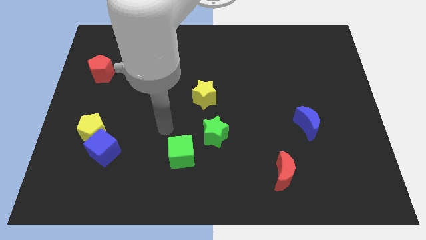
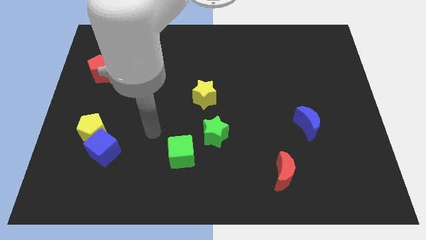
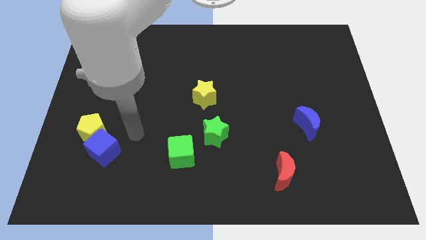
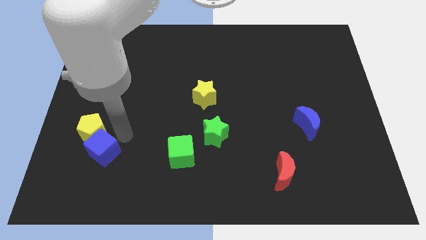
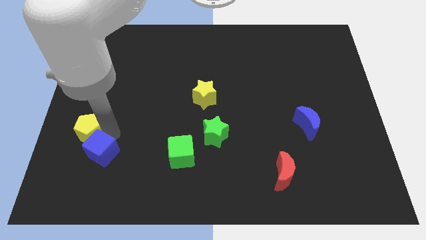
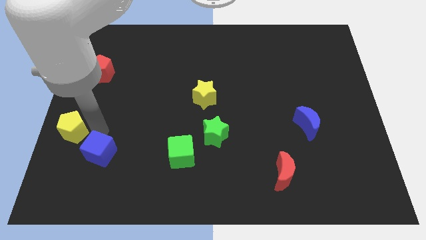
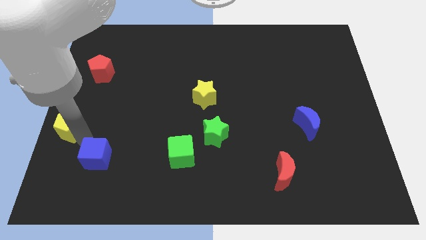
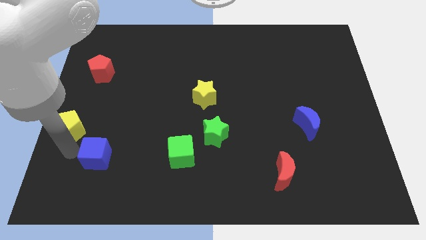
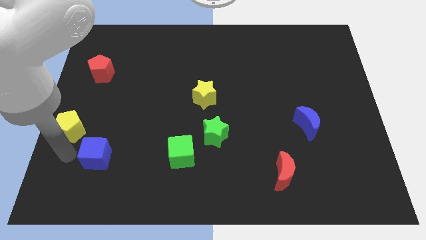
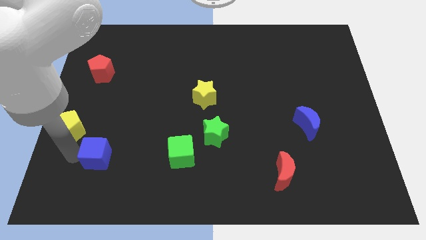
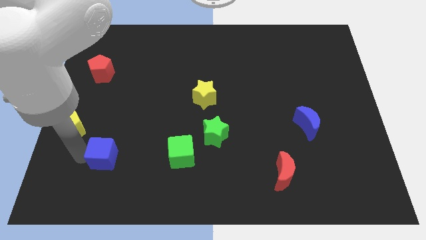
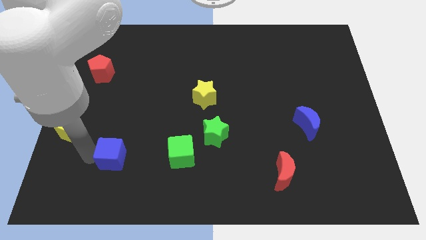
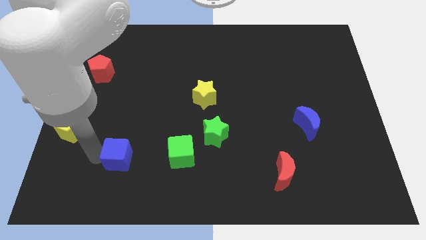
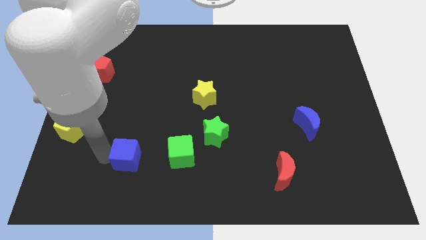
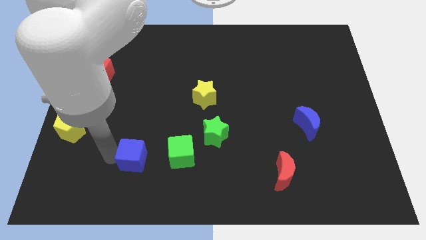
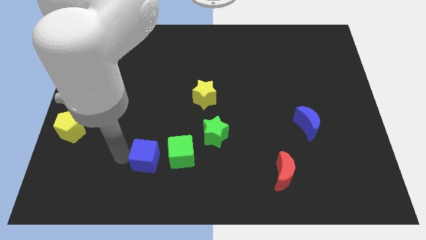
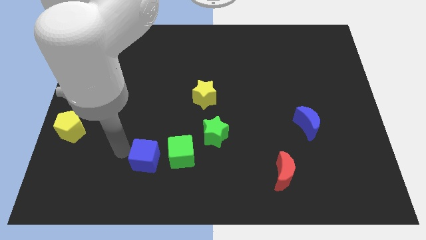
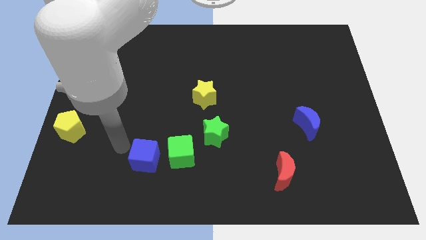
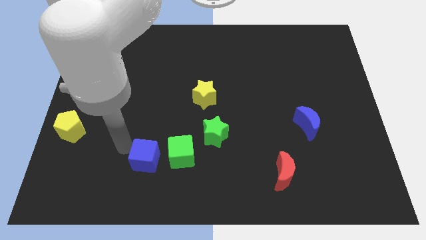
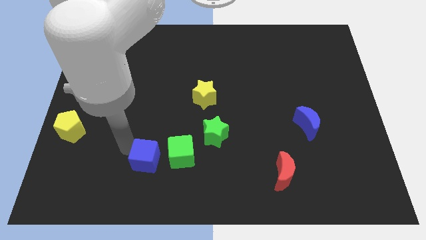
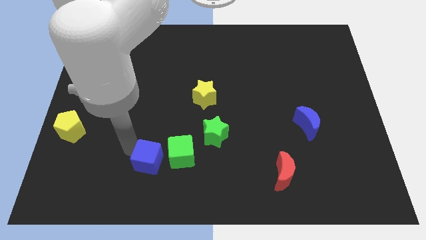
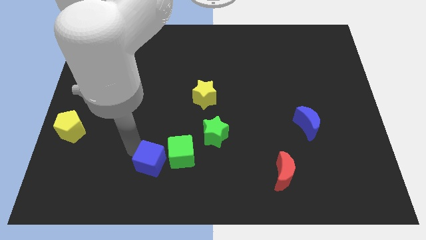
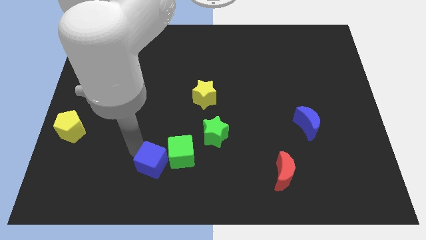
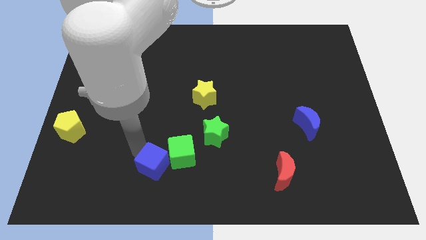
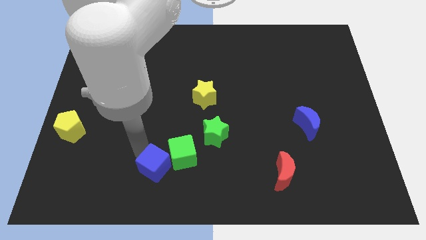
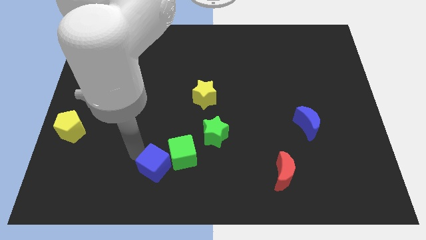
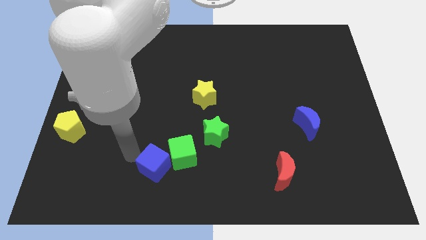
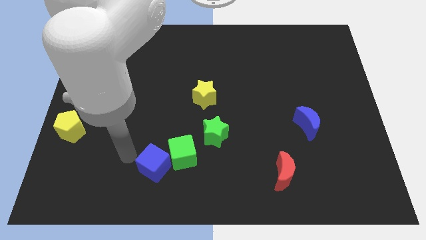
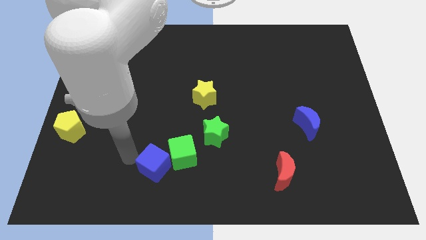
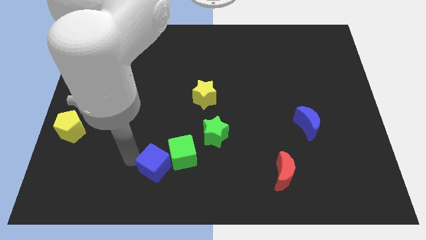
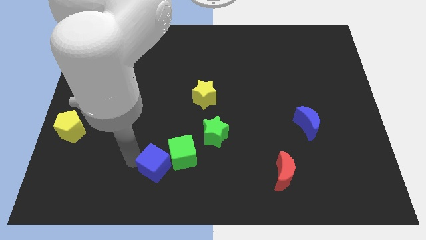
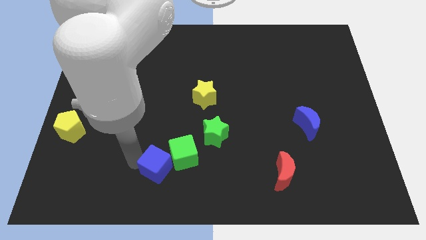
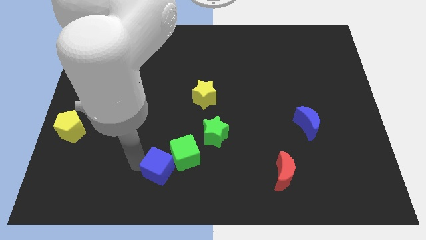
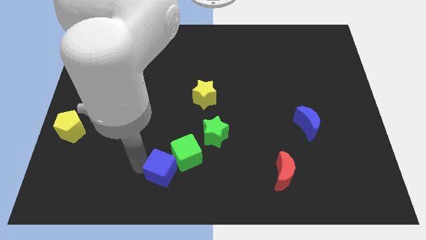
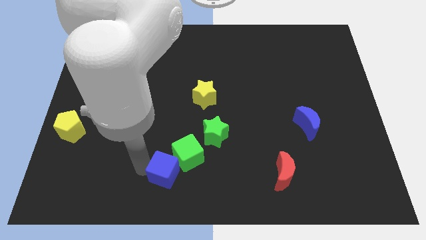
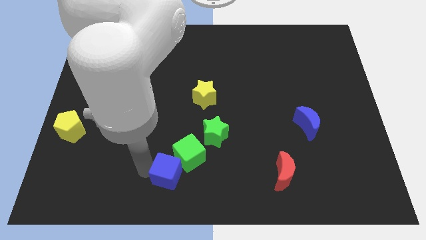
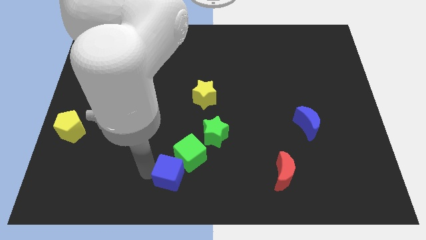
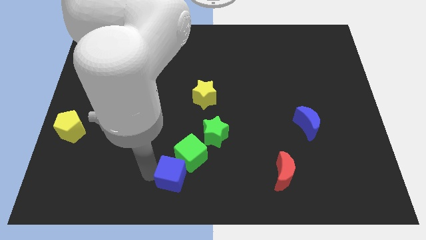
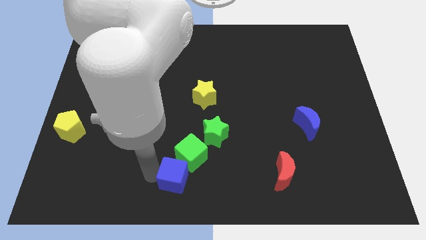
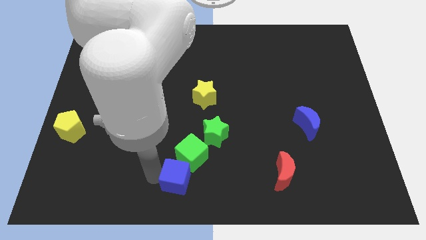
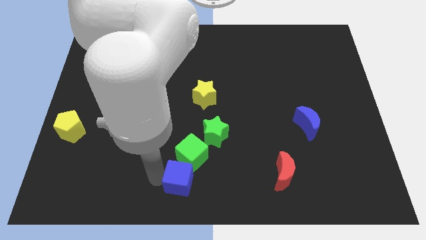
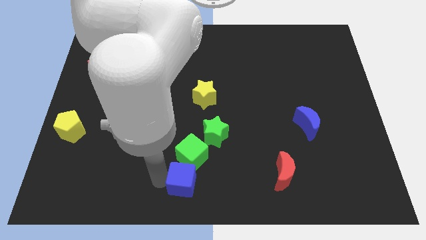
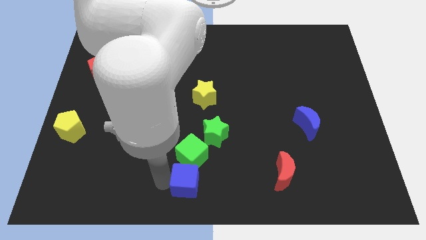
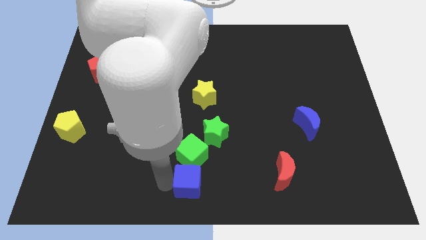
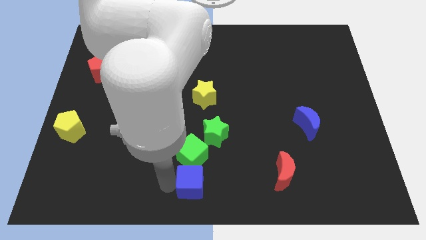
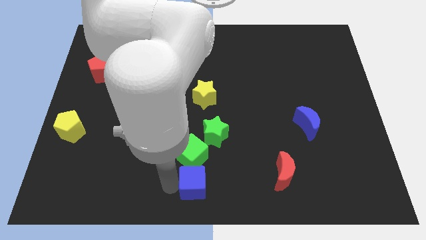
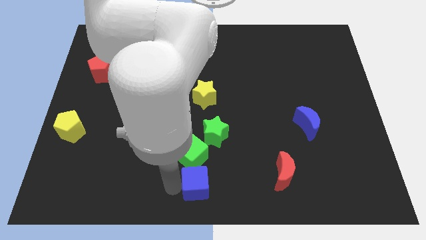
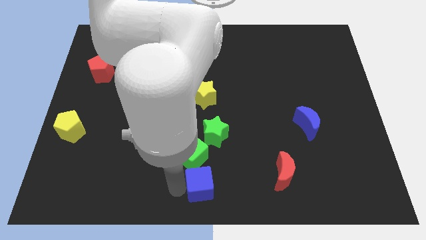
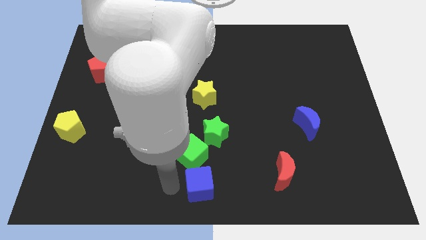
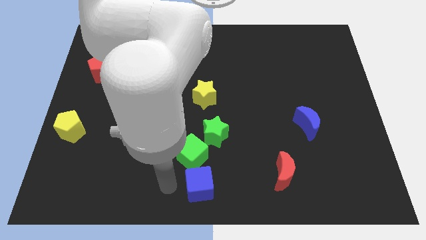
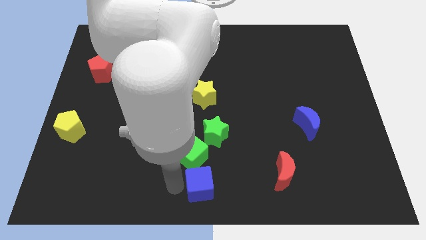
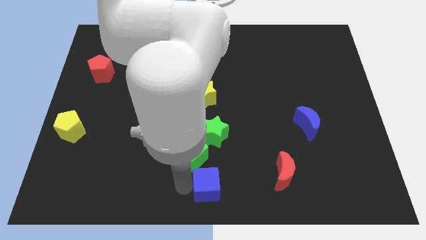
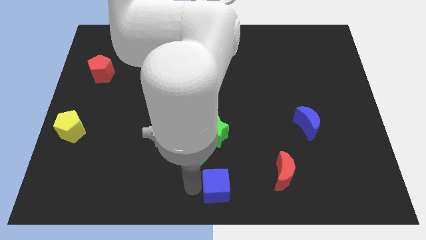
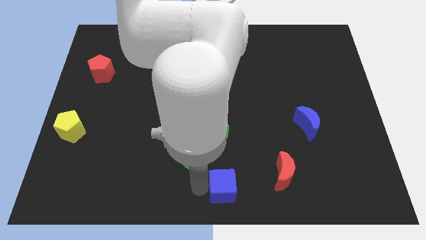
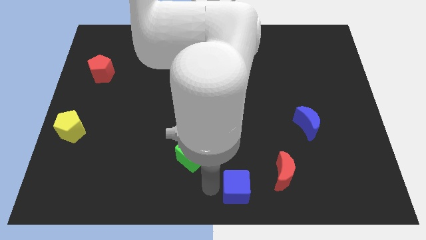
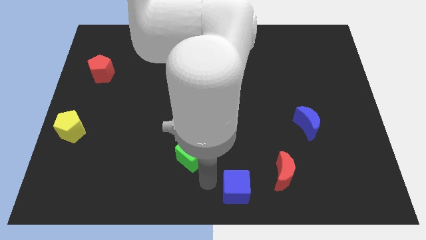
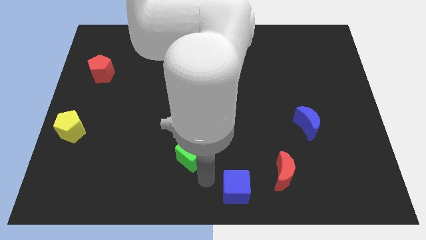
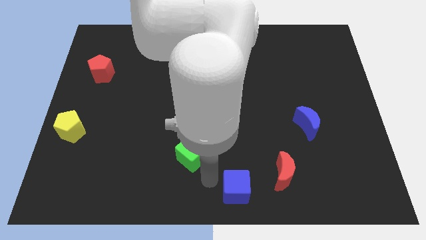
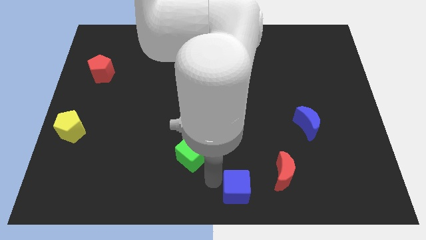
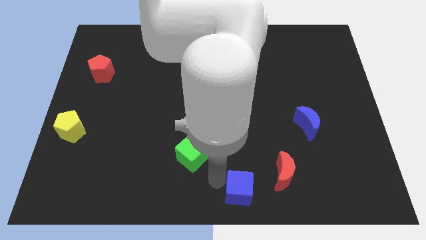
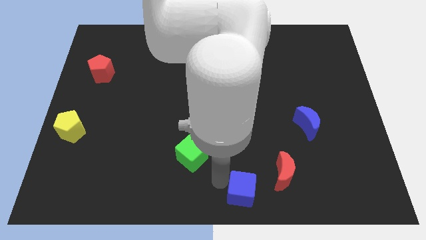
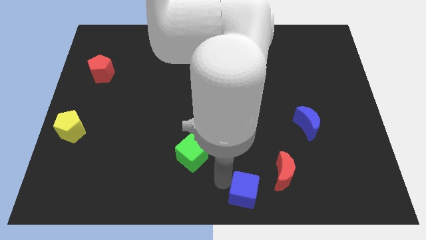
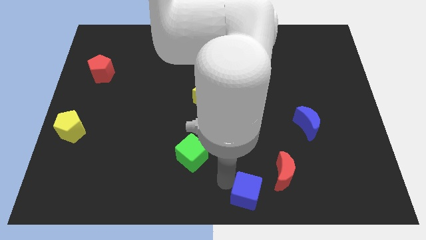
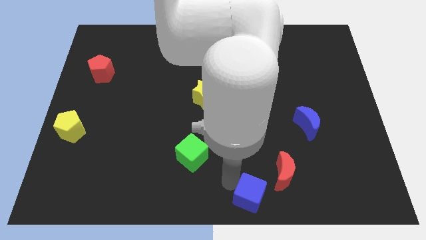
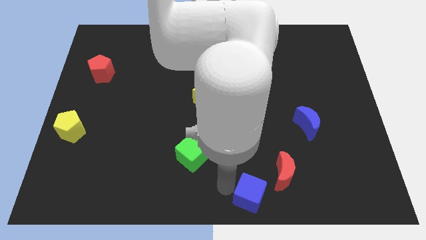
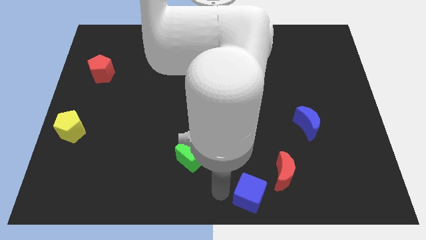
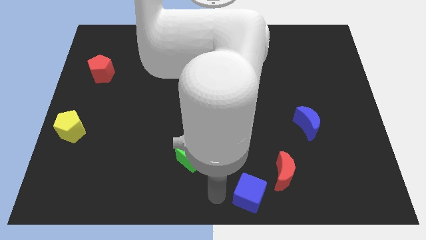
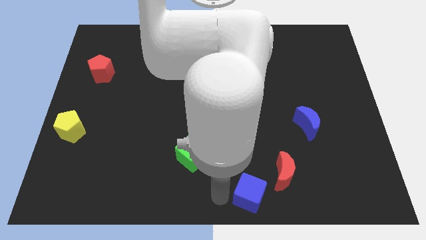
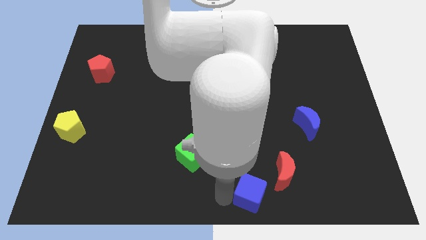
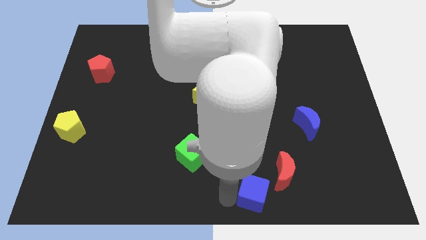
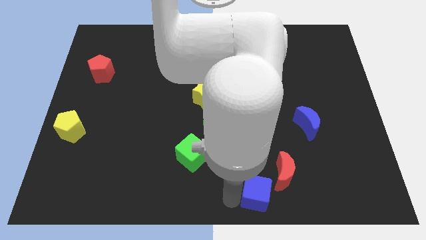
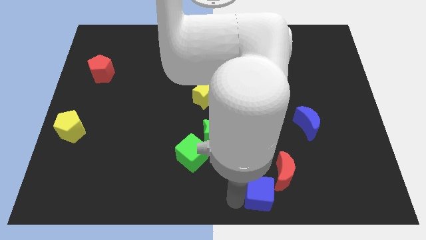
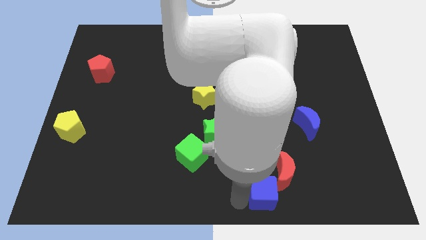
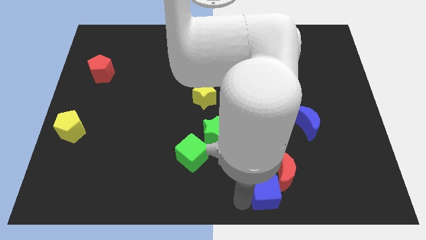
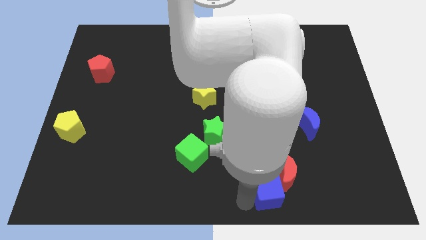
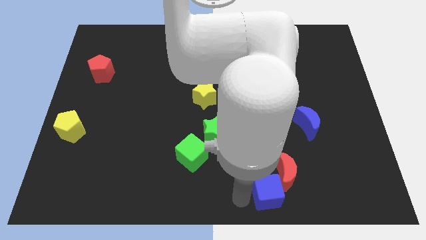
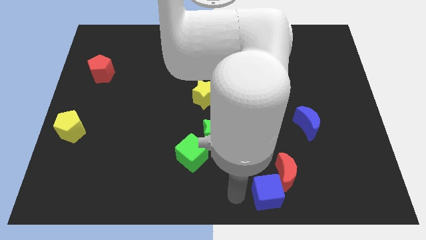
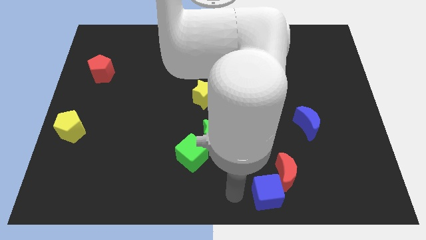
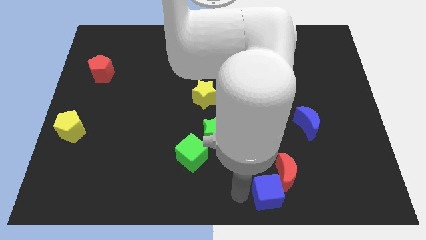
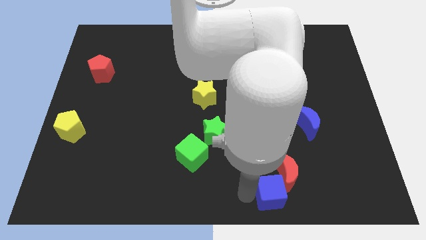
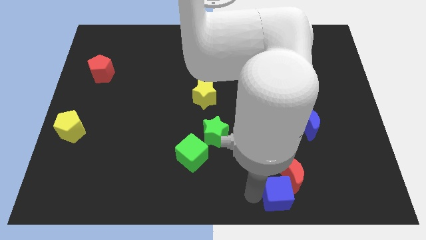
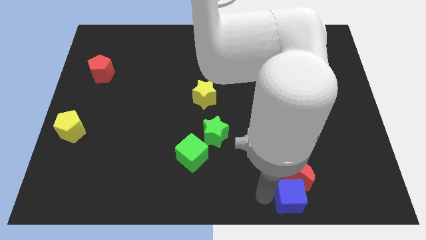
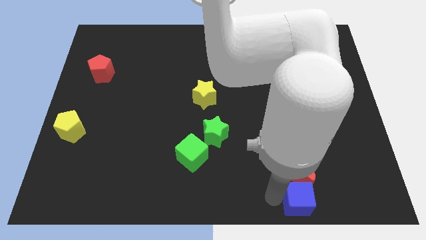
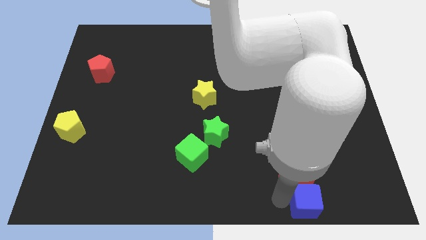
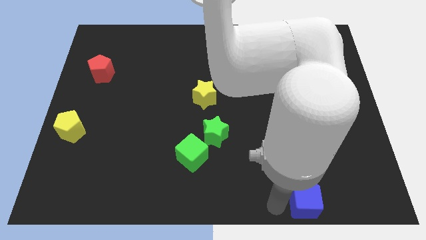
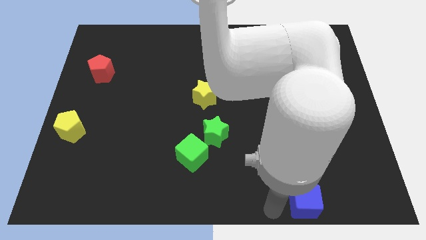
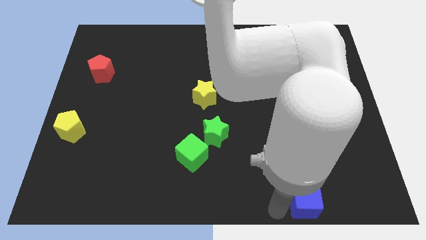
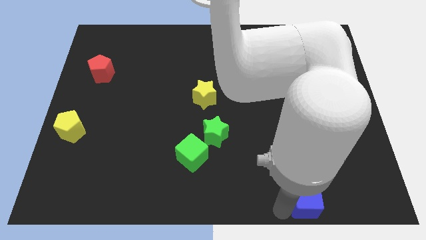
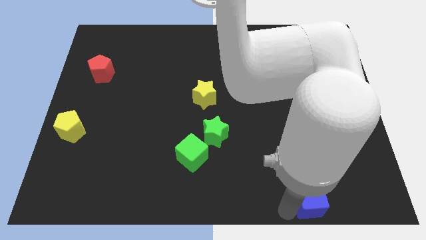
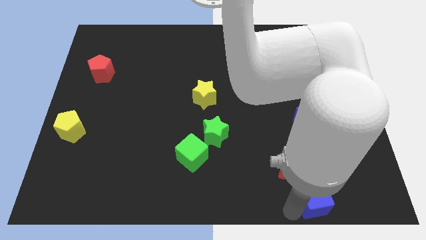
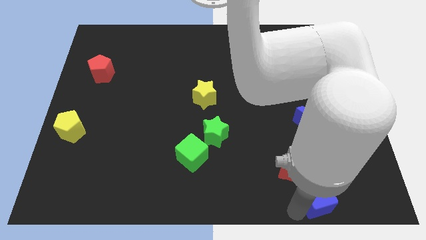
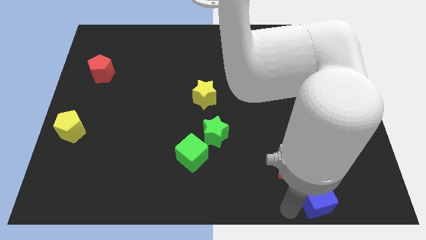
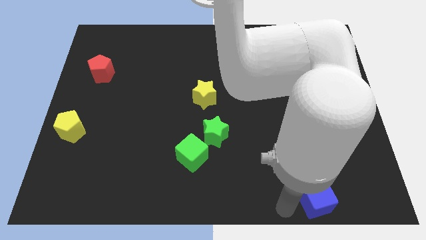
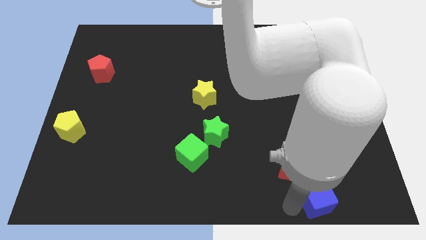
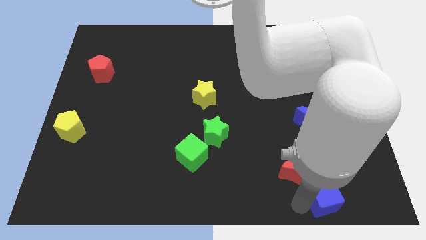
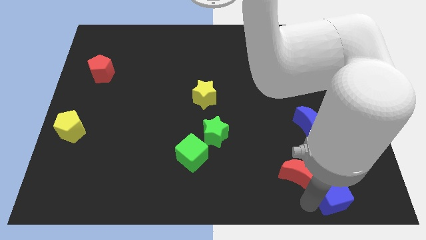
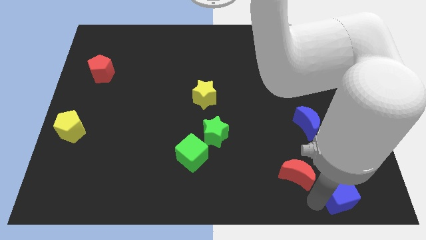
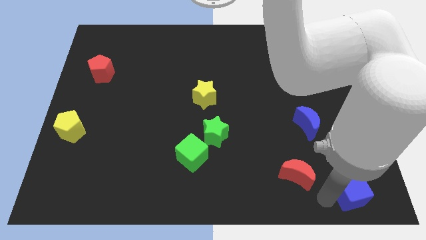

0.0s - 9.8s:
move the blue cube to the lower right corner
